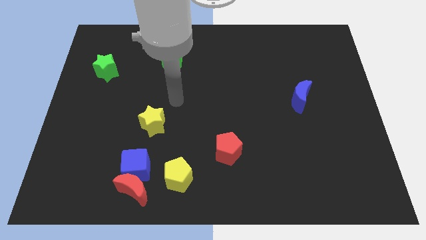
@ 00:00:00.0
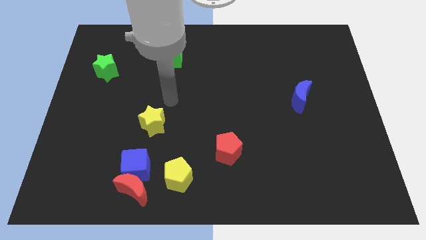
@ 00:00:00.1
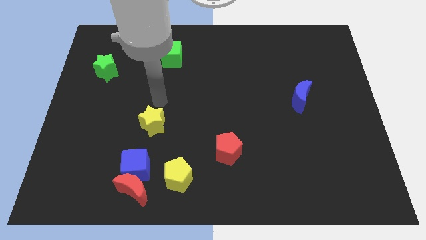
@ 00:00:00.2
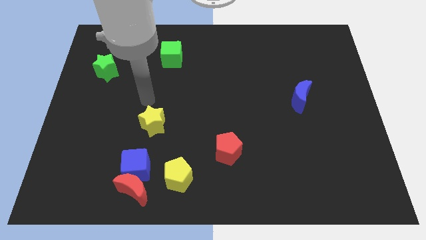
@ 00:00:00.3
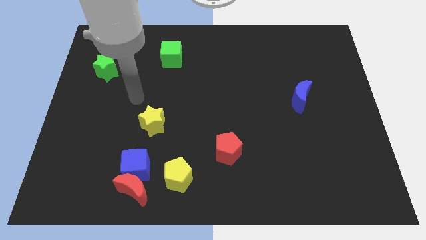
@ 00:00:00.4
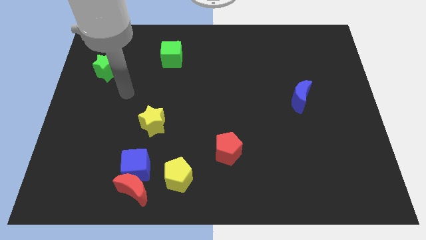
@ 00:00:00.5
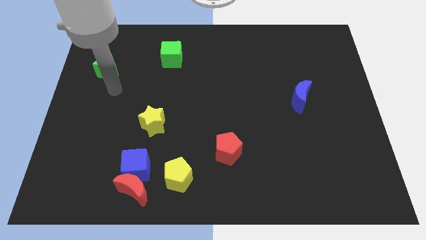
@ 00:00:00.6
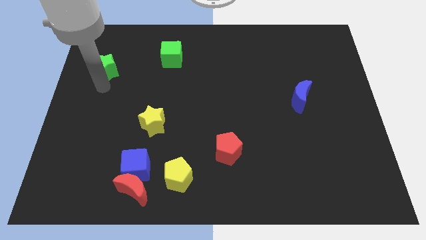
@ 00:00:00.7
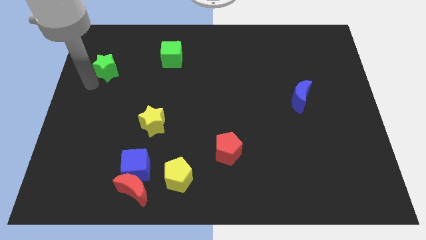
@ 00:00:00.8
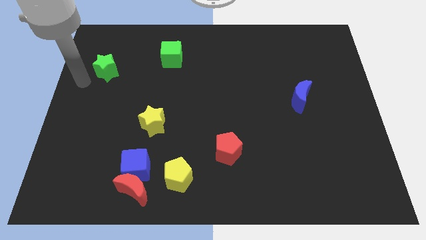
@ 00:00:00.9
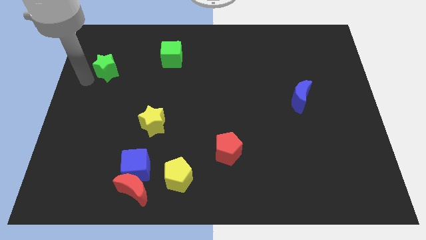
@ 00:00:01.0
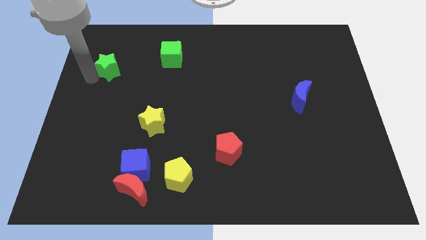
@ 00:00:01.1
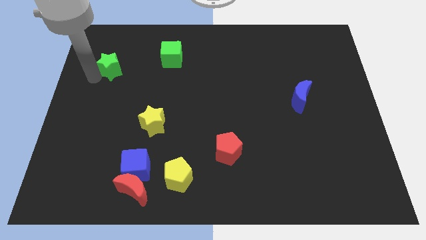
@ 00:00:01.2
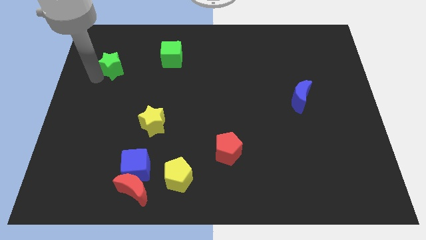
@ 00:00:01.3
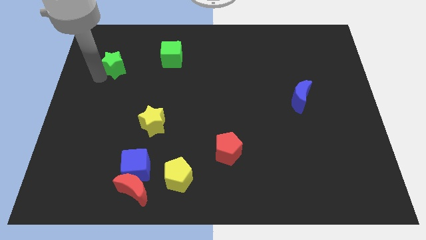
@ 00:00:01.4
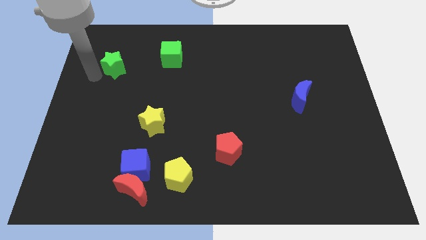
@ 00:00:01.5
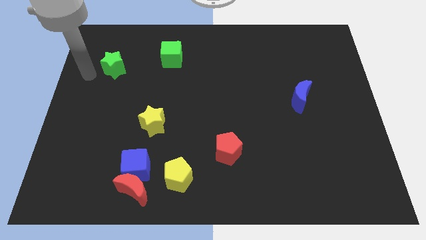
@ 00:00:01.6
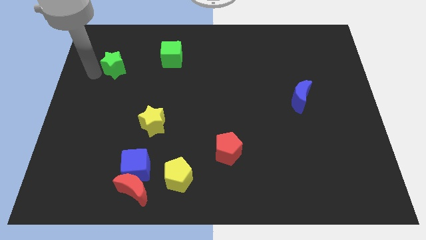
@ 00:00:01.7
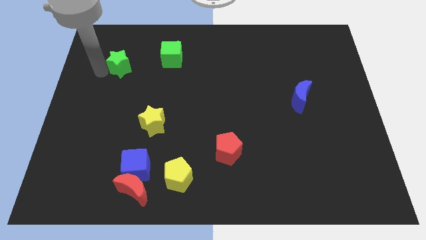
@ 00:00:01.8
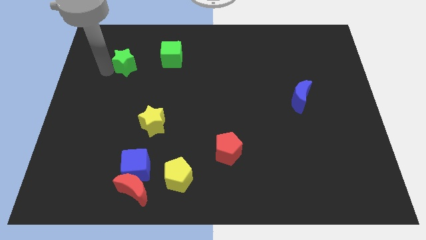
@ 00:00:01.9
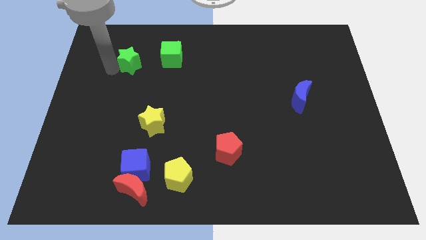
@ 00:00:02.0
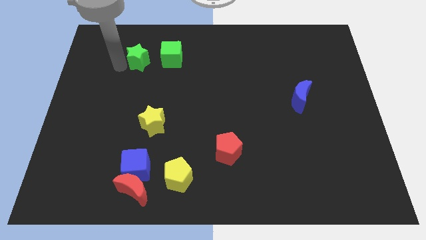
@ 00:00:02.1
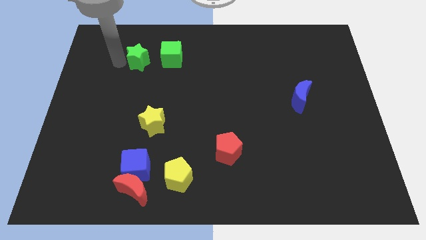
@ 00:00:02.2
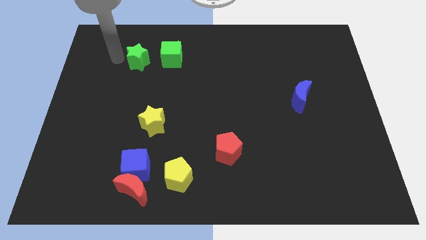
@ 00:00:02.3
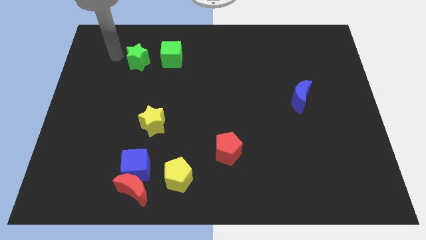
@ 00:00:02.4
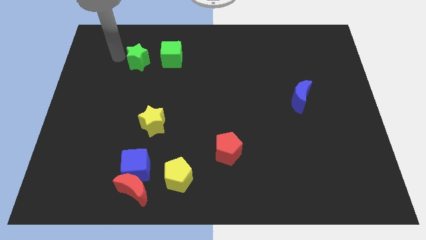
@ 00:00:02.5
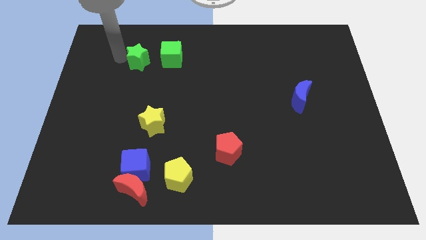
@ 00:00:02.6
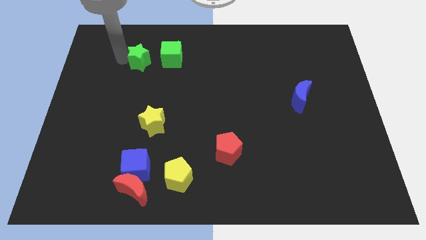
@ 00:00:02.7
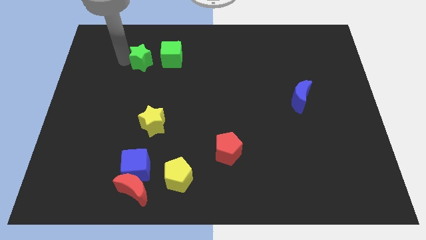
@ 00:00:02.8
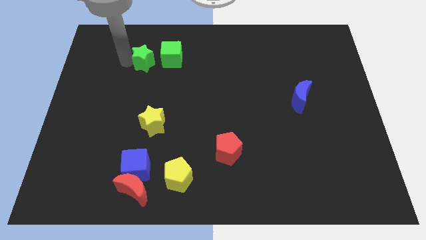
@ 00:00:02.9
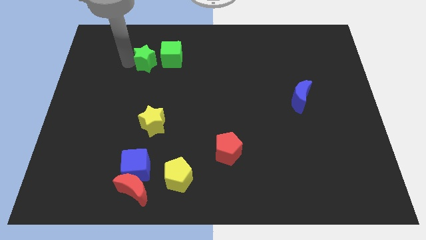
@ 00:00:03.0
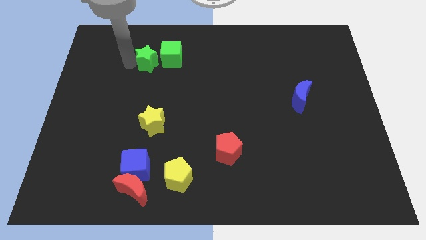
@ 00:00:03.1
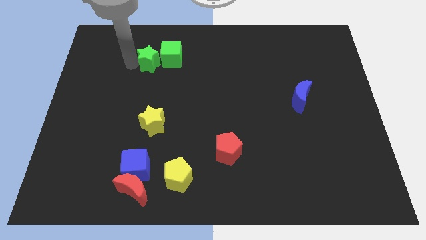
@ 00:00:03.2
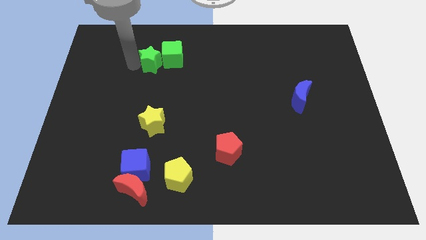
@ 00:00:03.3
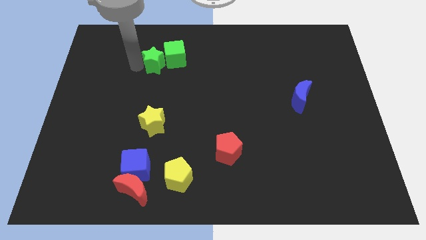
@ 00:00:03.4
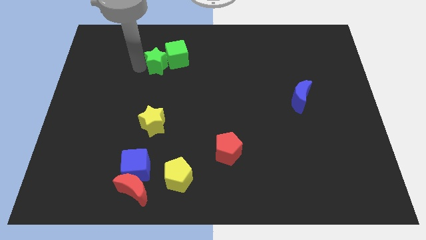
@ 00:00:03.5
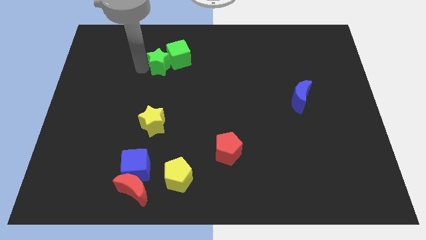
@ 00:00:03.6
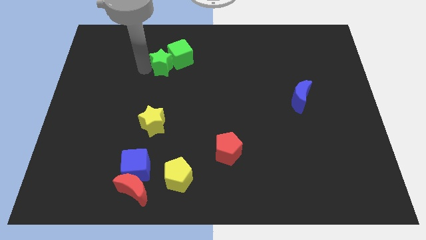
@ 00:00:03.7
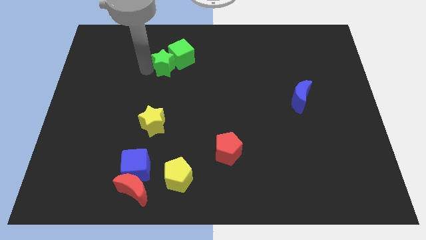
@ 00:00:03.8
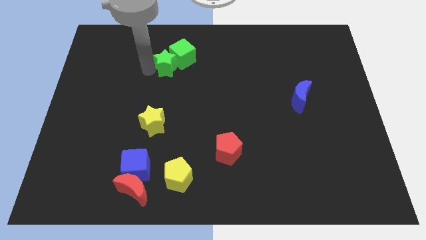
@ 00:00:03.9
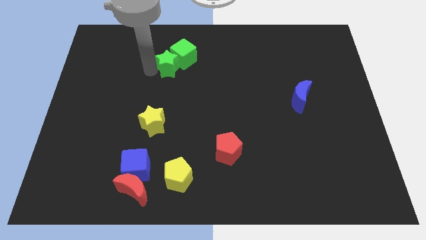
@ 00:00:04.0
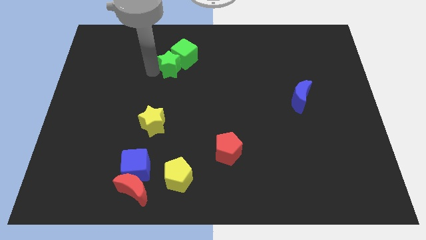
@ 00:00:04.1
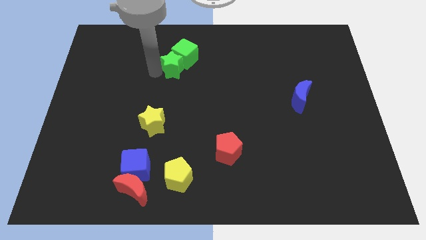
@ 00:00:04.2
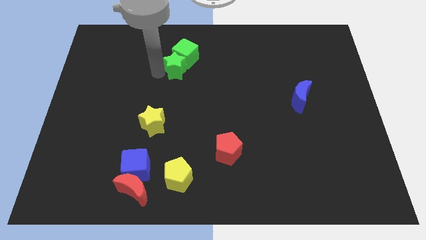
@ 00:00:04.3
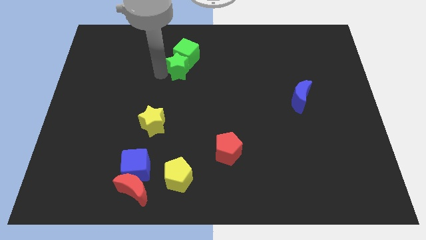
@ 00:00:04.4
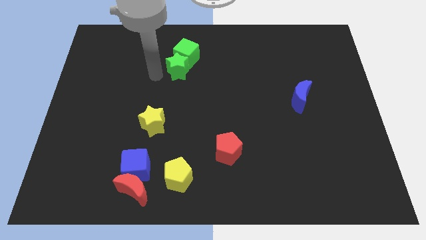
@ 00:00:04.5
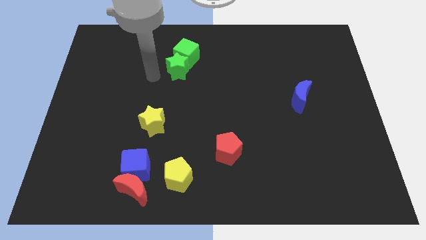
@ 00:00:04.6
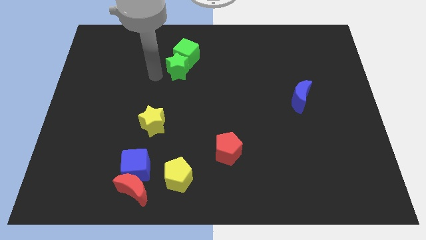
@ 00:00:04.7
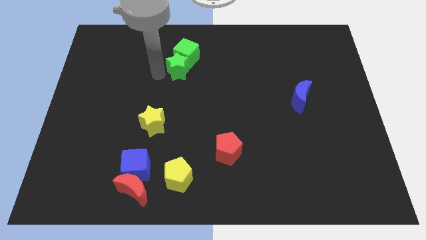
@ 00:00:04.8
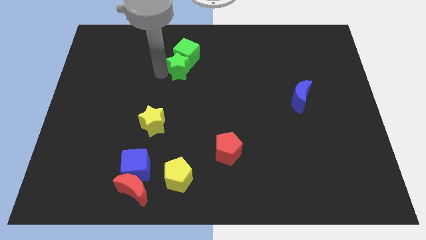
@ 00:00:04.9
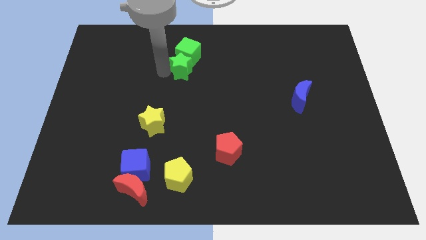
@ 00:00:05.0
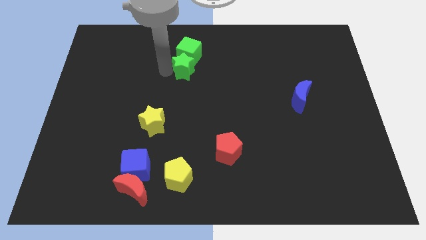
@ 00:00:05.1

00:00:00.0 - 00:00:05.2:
slide the green star right

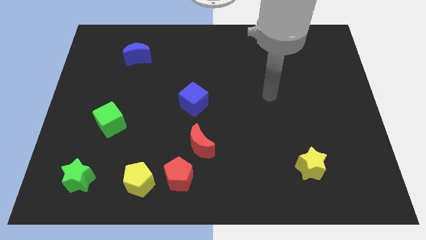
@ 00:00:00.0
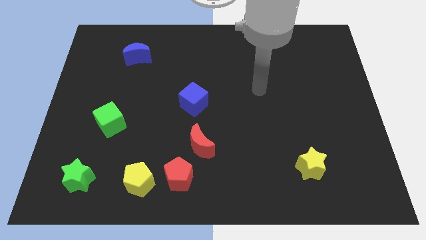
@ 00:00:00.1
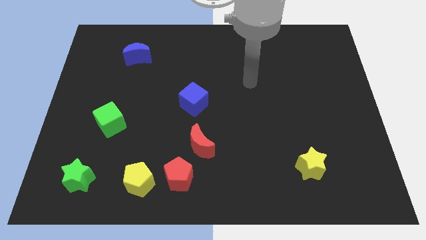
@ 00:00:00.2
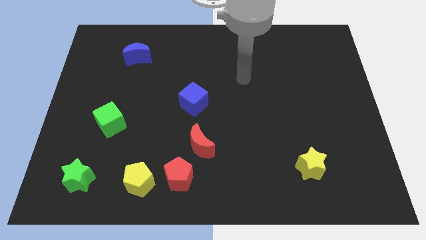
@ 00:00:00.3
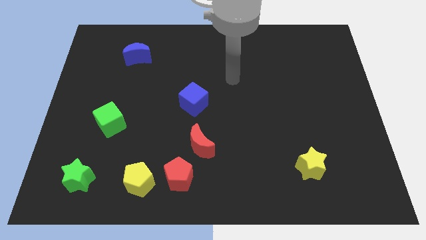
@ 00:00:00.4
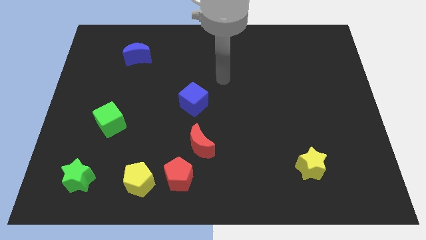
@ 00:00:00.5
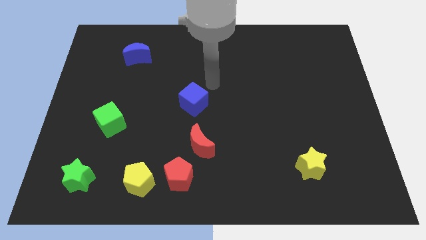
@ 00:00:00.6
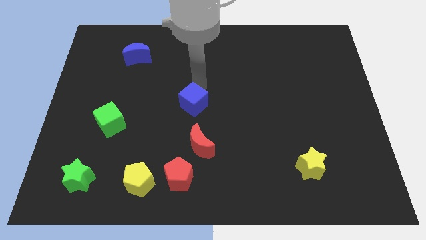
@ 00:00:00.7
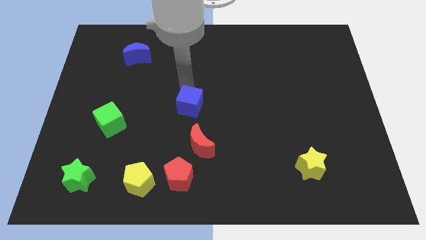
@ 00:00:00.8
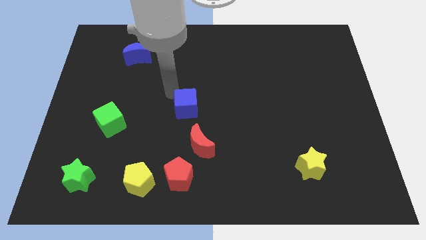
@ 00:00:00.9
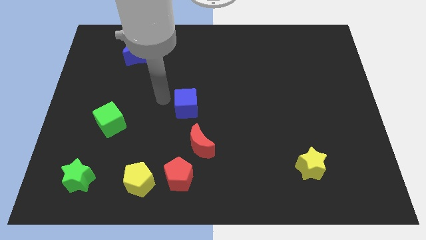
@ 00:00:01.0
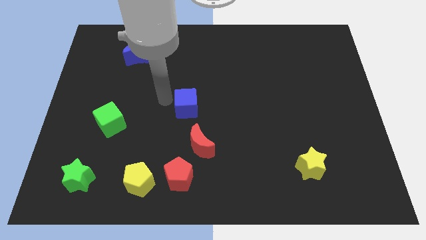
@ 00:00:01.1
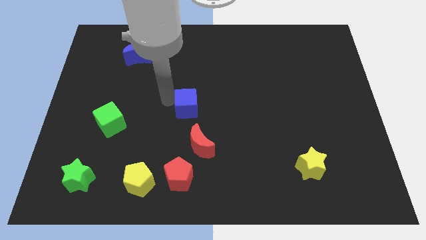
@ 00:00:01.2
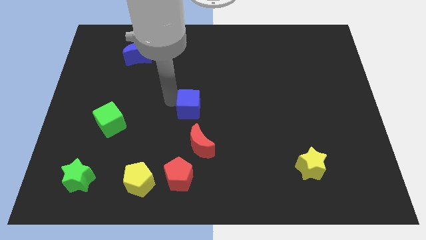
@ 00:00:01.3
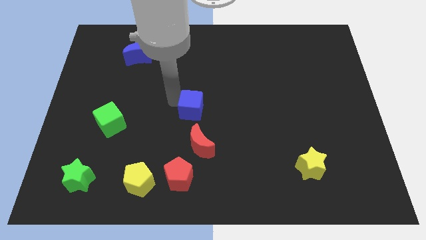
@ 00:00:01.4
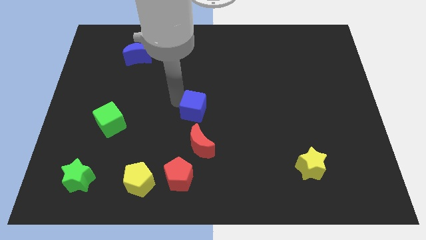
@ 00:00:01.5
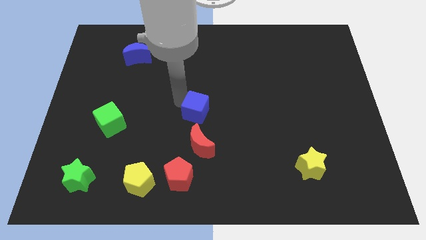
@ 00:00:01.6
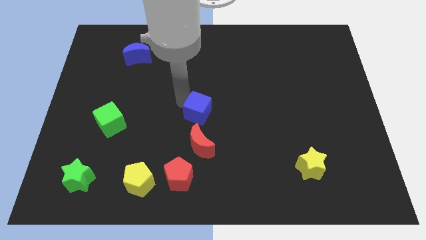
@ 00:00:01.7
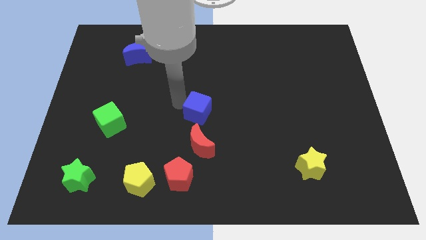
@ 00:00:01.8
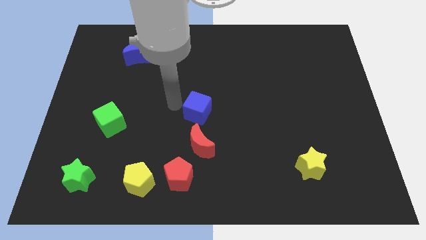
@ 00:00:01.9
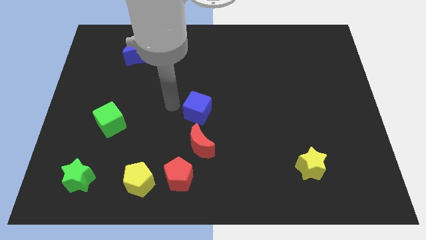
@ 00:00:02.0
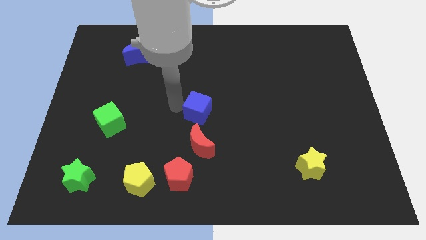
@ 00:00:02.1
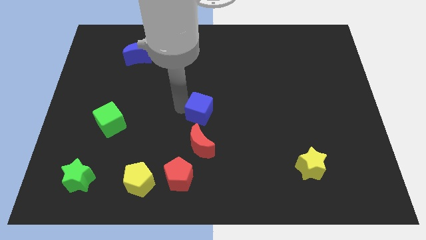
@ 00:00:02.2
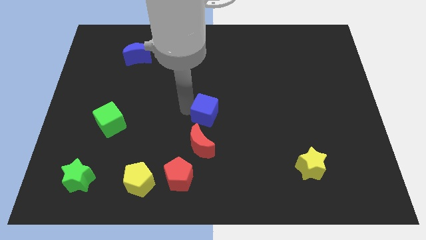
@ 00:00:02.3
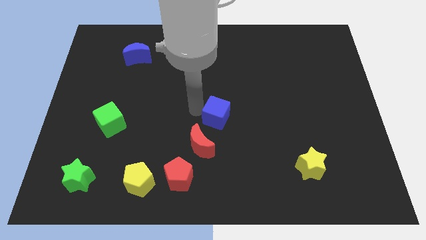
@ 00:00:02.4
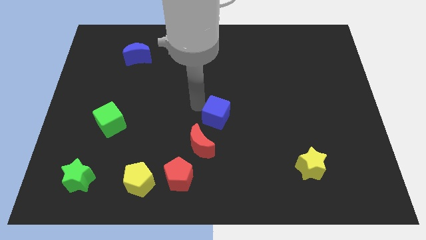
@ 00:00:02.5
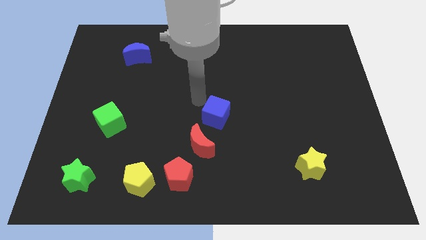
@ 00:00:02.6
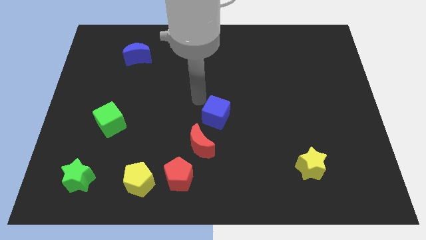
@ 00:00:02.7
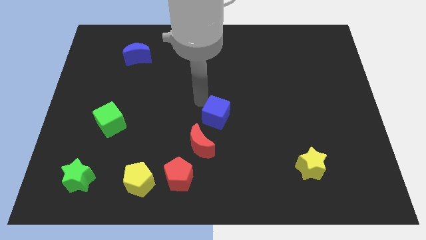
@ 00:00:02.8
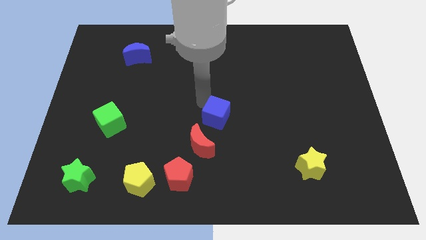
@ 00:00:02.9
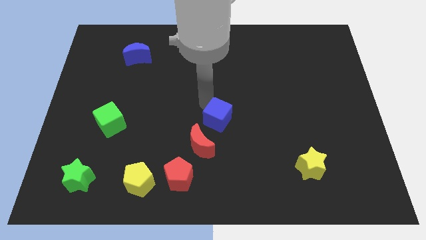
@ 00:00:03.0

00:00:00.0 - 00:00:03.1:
slightly slide the blue cube diagonally downwards and right

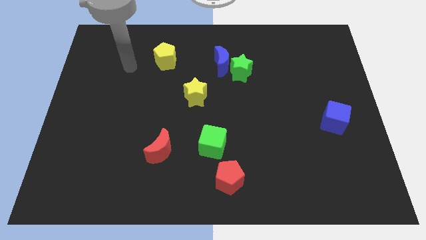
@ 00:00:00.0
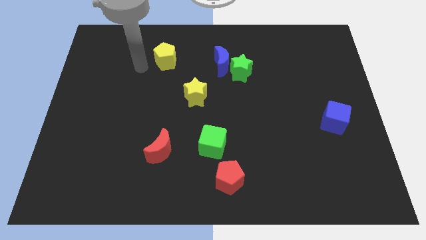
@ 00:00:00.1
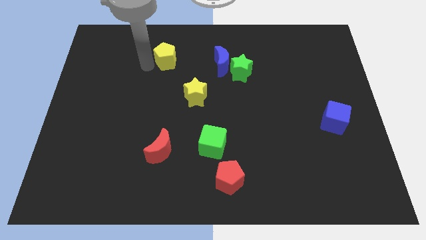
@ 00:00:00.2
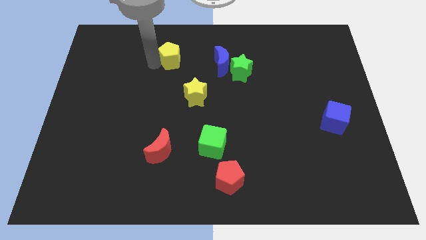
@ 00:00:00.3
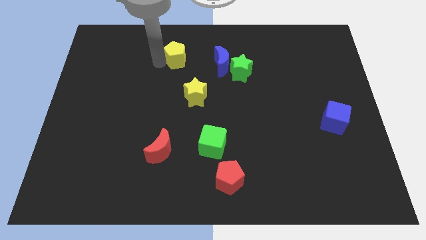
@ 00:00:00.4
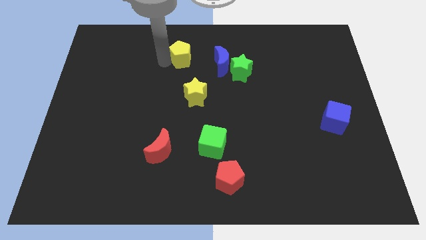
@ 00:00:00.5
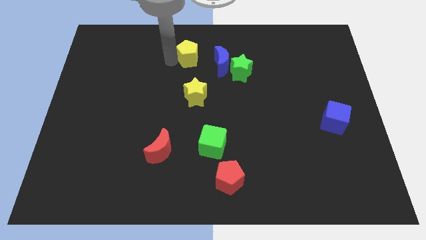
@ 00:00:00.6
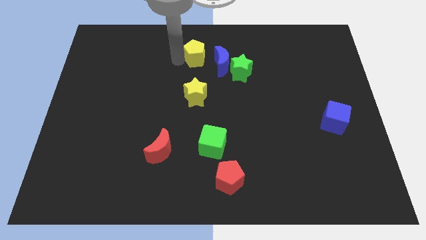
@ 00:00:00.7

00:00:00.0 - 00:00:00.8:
move the yellow pentagon slightly right
